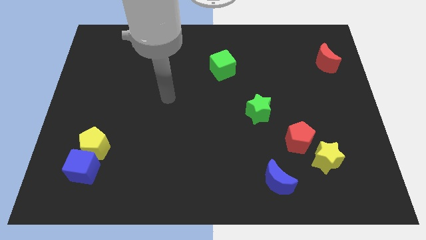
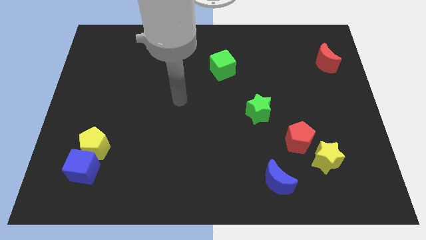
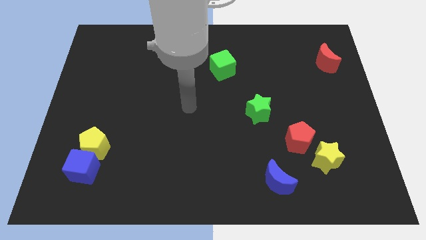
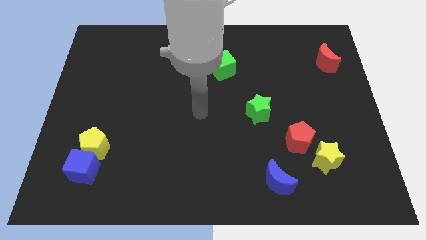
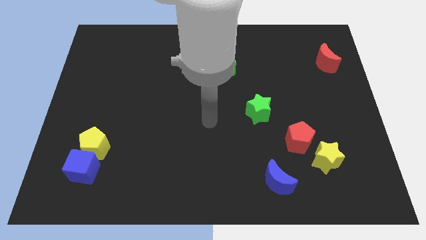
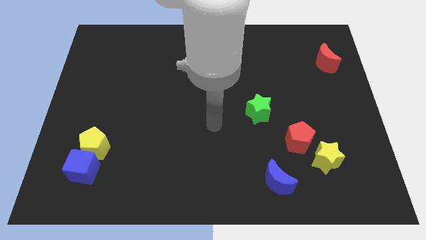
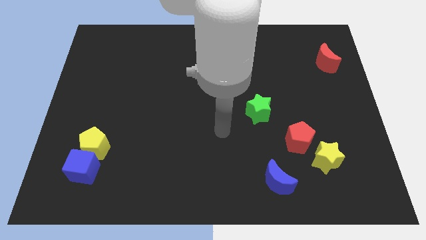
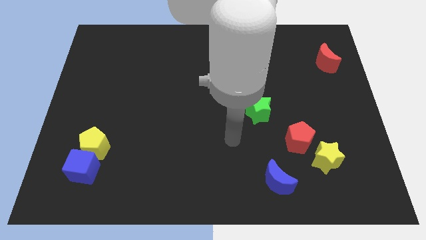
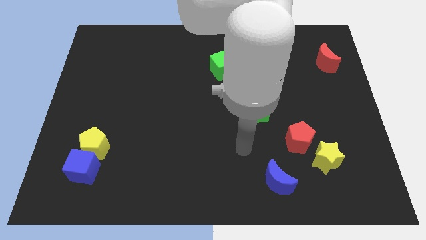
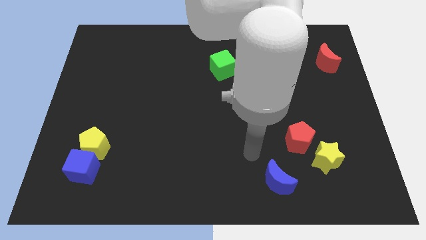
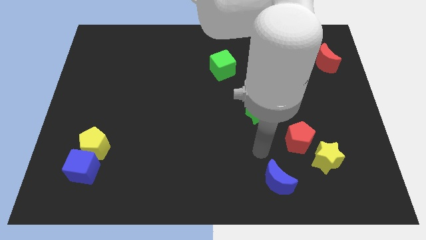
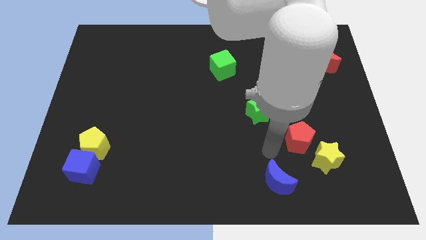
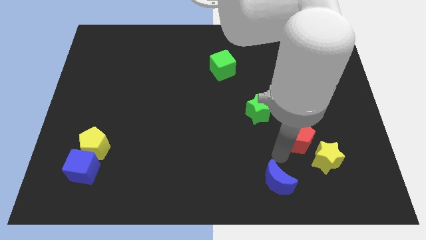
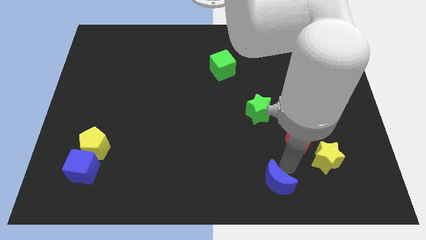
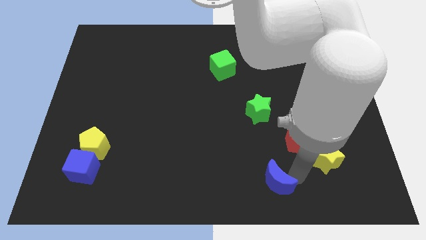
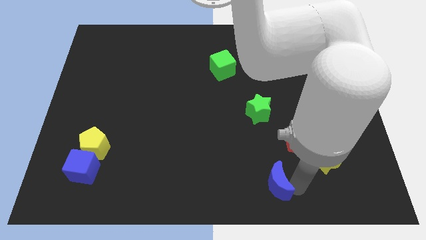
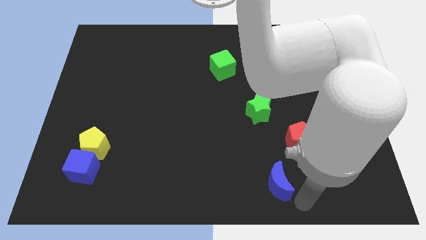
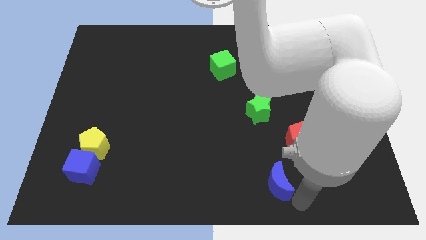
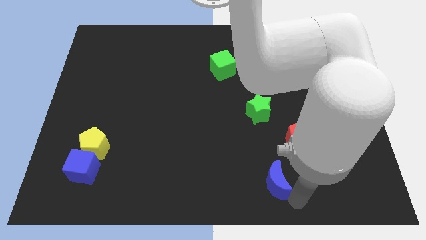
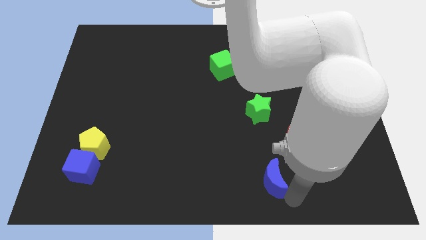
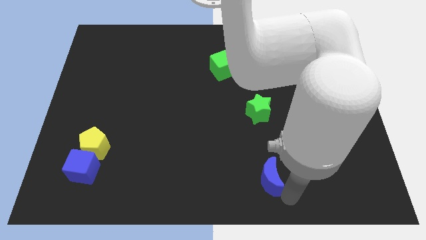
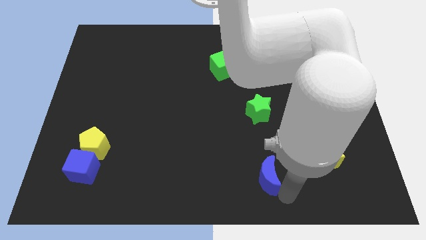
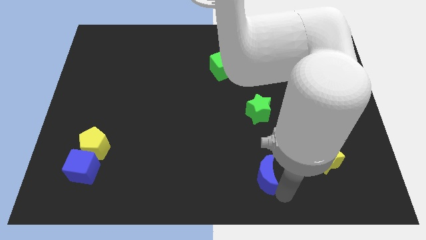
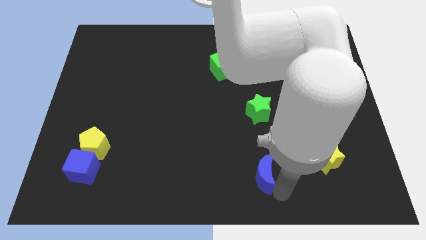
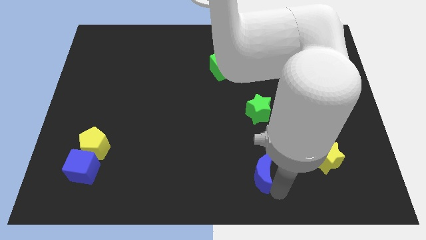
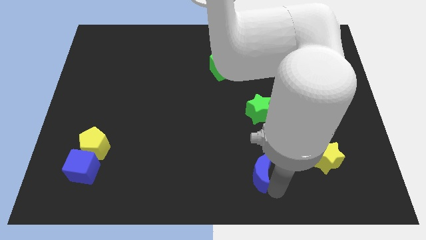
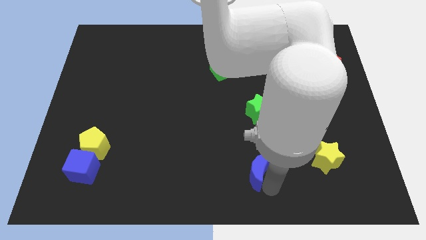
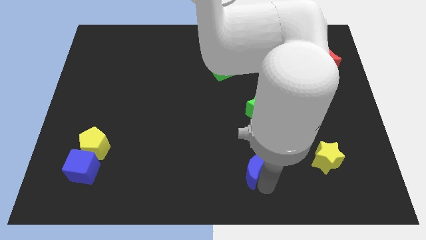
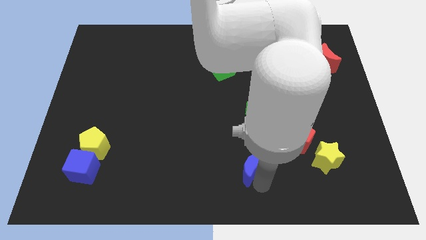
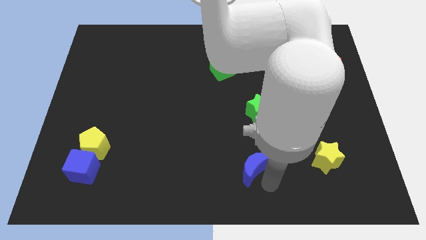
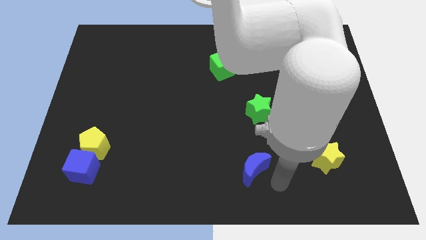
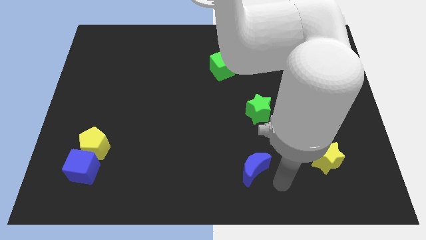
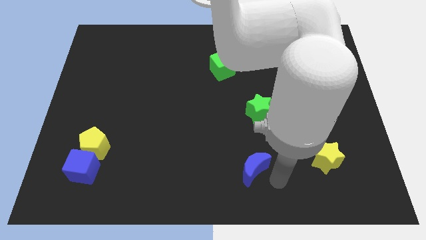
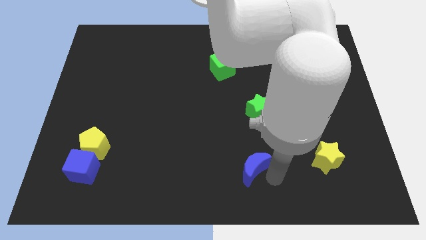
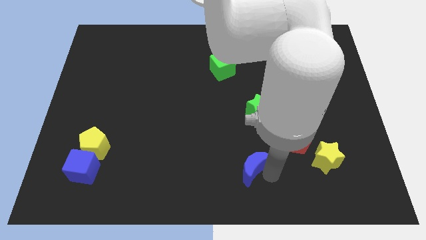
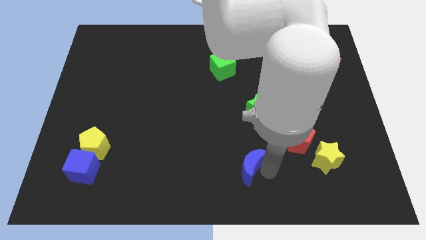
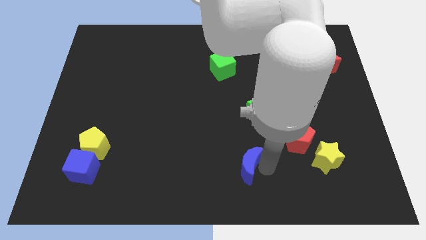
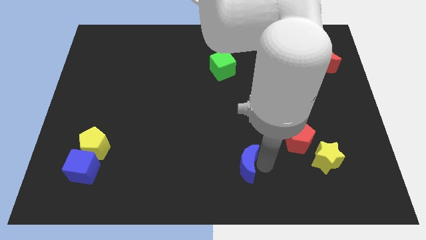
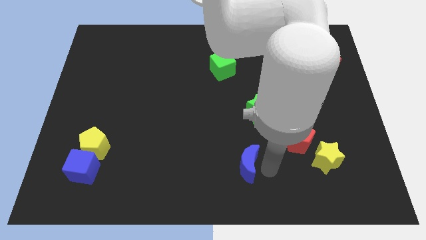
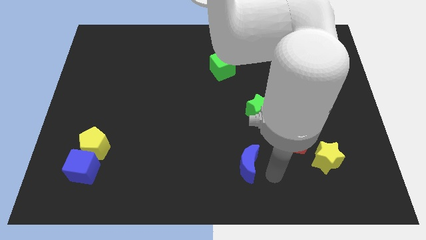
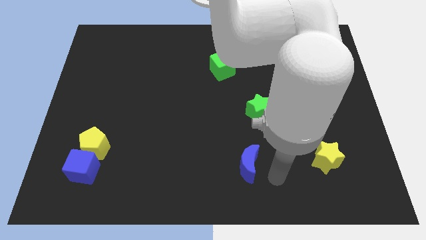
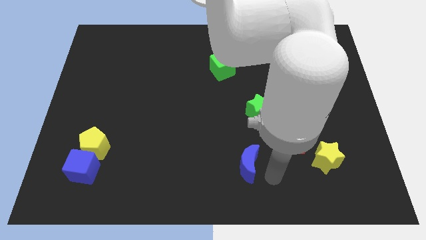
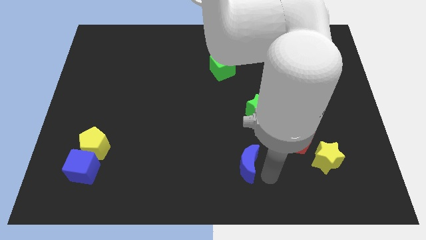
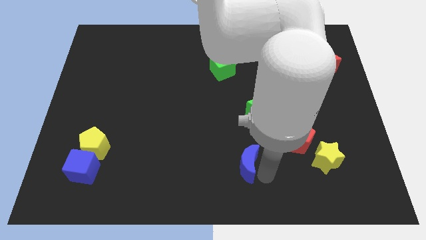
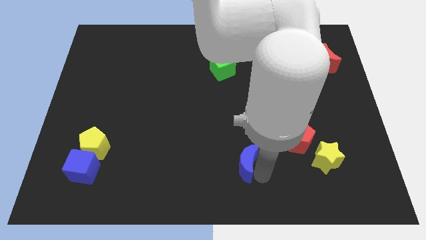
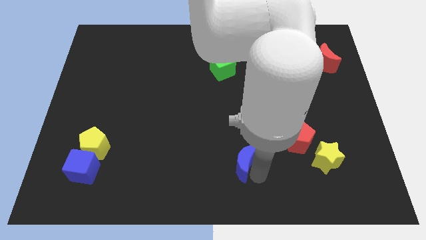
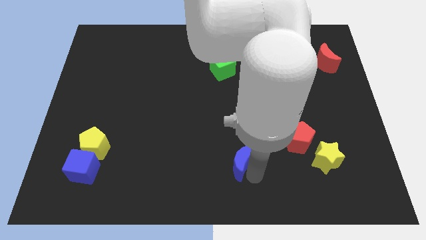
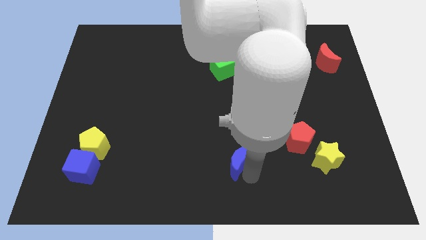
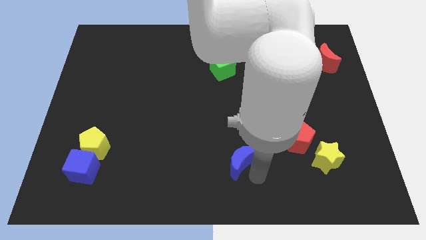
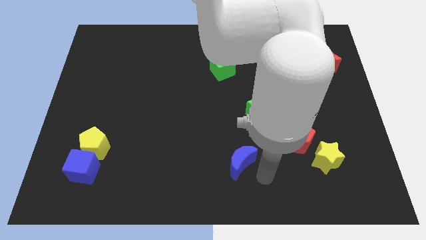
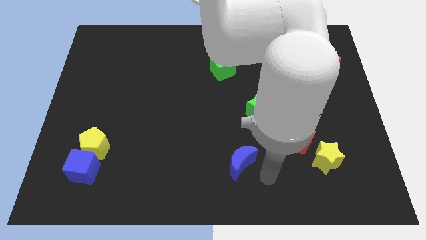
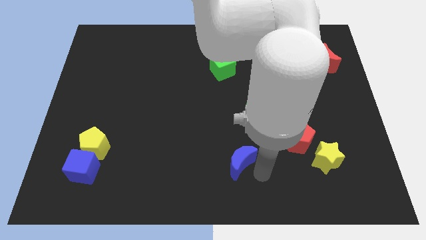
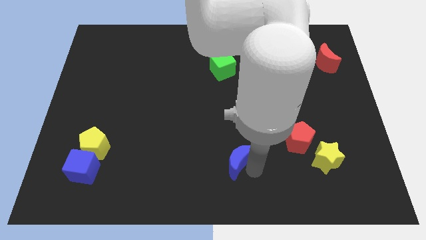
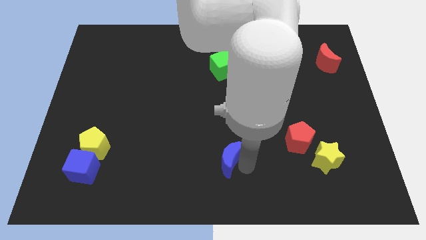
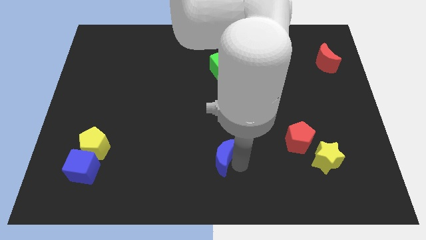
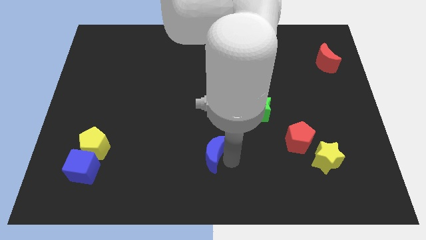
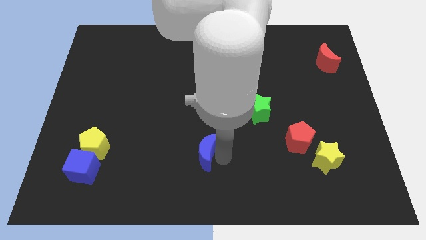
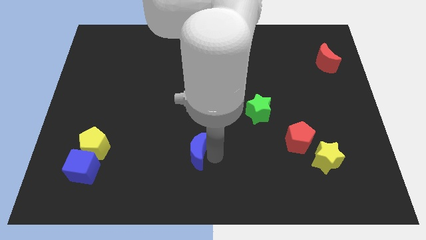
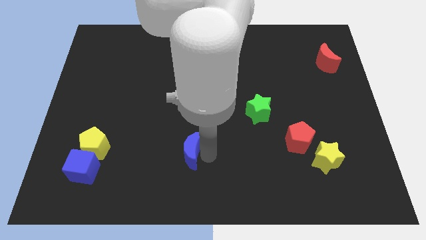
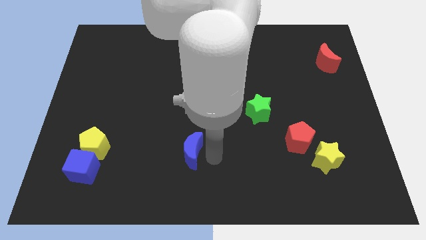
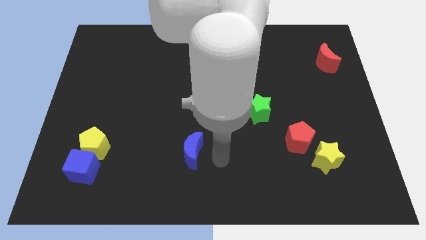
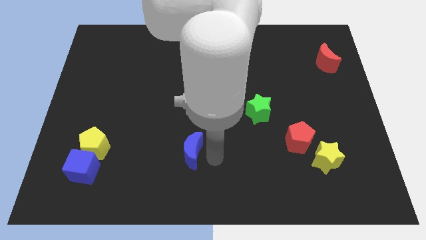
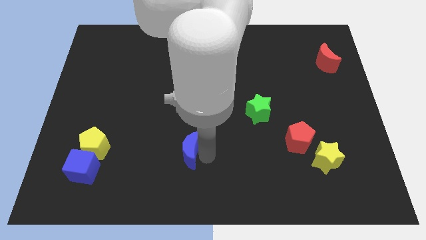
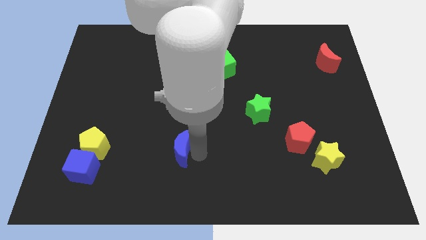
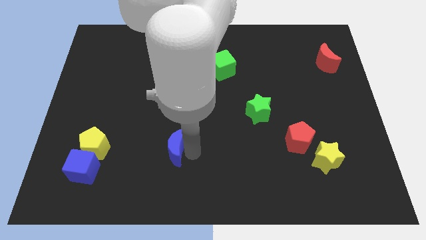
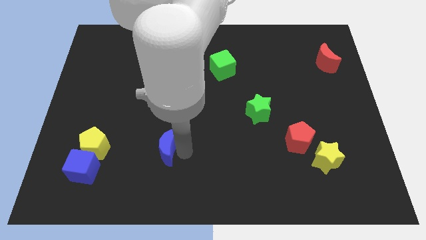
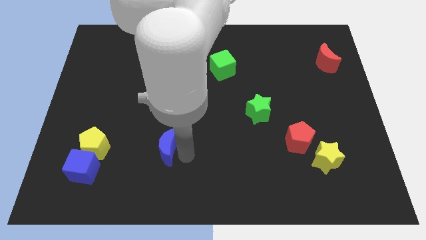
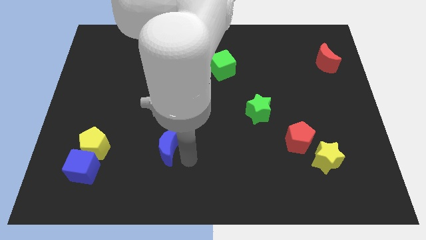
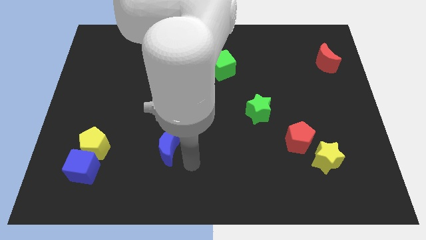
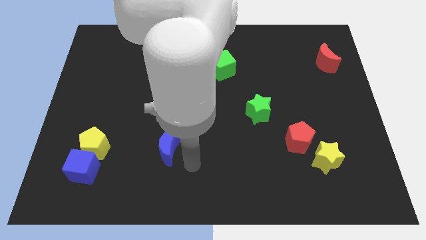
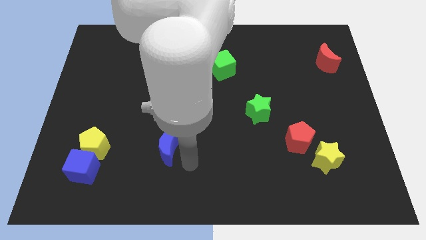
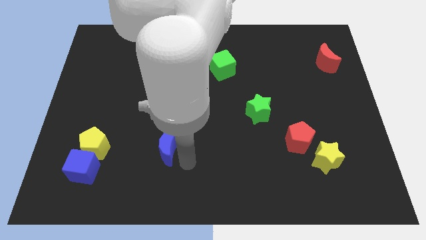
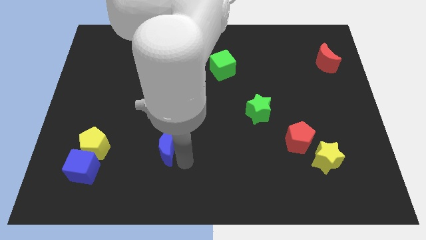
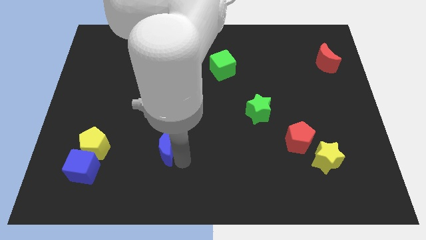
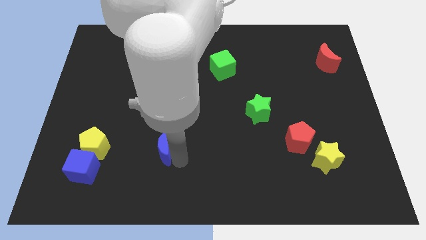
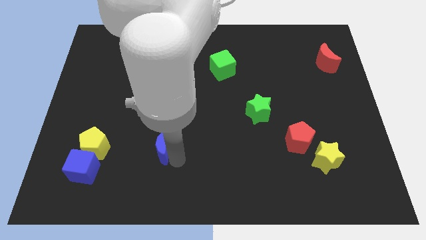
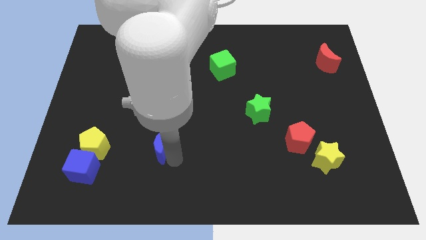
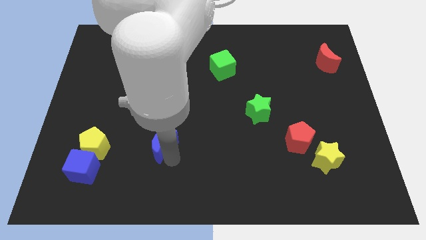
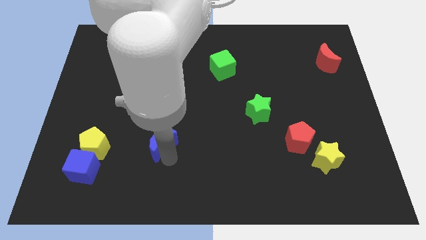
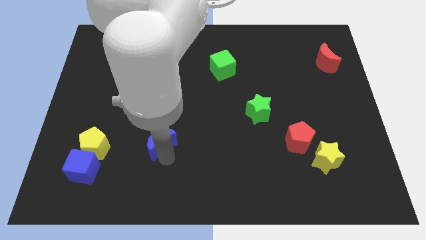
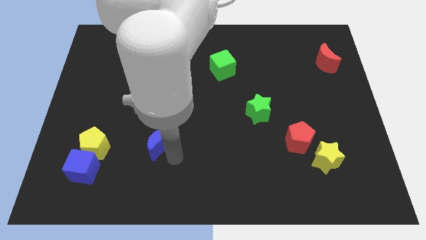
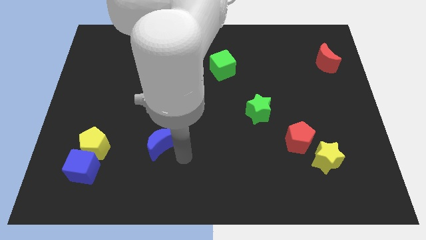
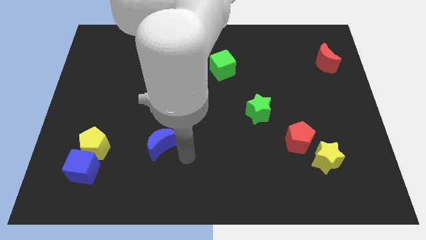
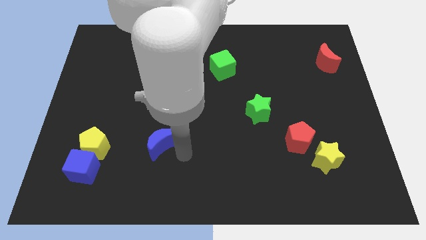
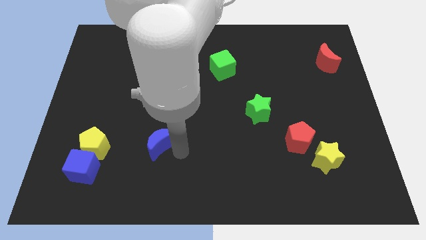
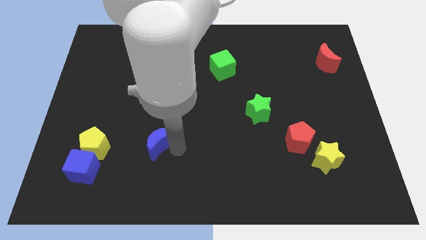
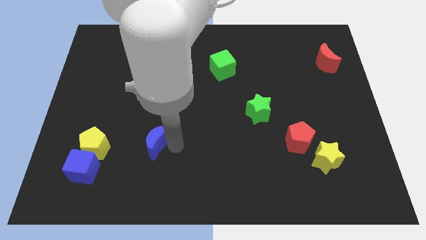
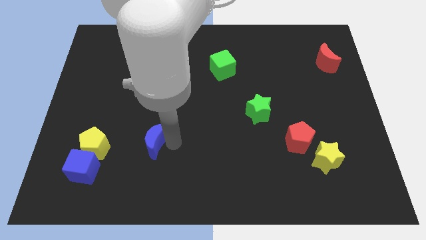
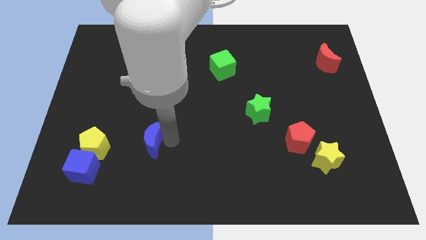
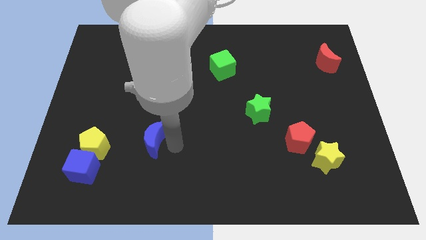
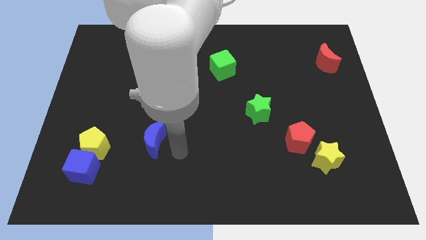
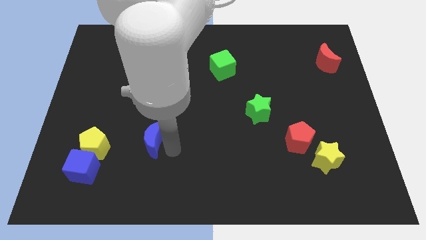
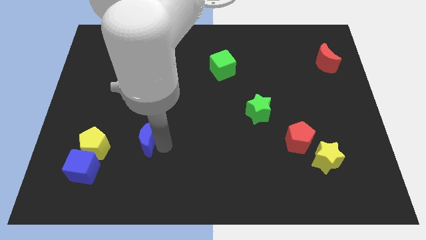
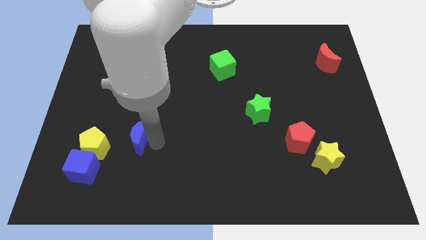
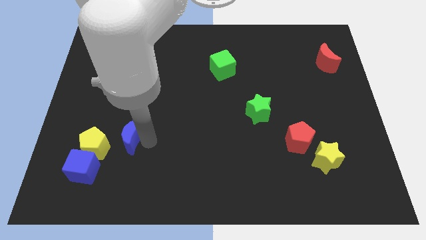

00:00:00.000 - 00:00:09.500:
move the blue moon diagonally up and to the right of the yellow pentagon
